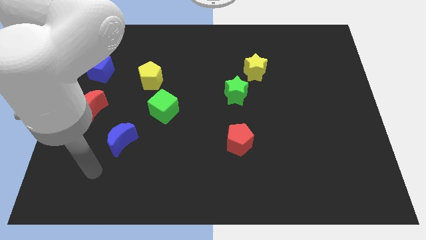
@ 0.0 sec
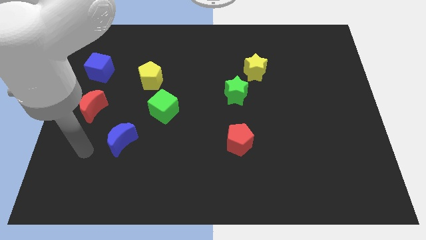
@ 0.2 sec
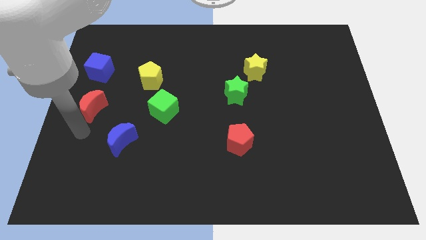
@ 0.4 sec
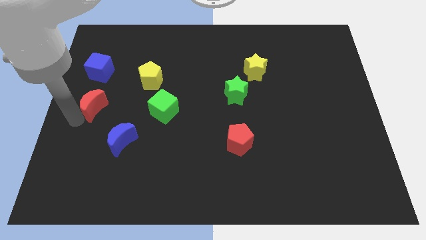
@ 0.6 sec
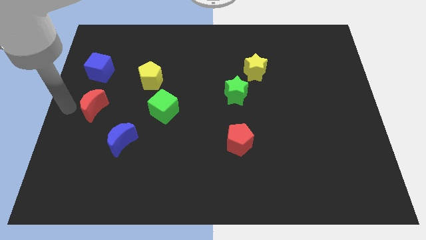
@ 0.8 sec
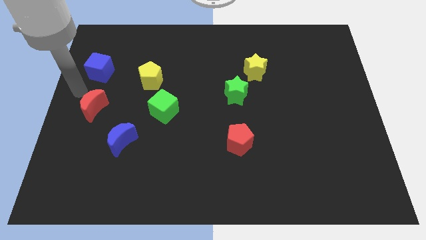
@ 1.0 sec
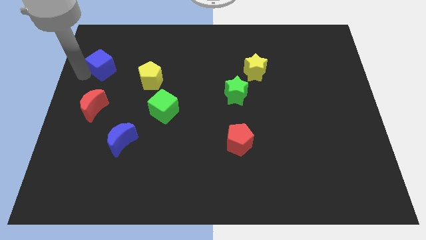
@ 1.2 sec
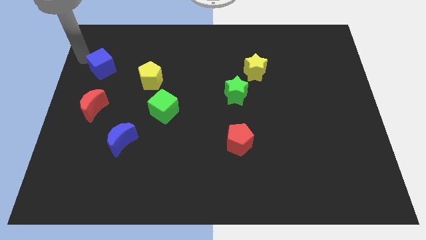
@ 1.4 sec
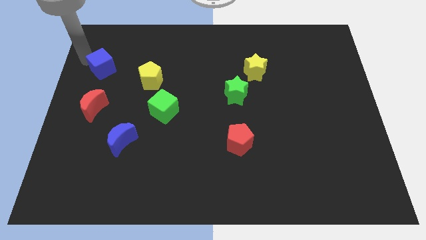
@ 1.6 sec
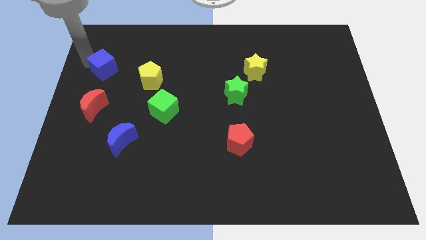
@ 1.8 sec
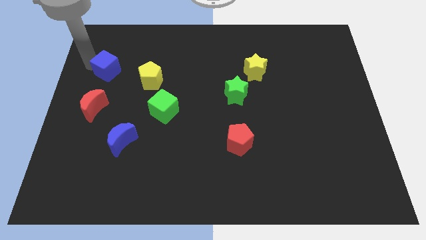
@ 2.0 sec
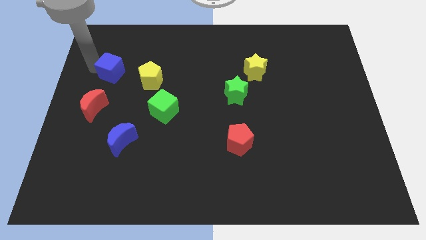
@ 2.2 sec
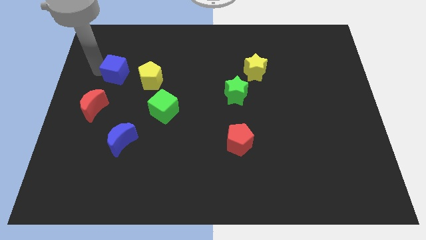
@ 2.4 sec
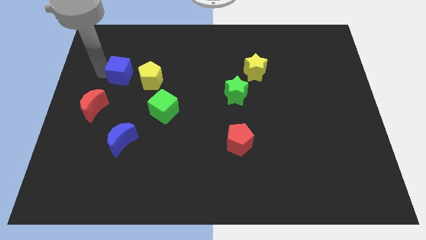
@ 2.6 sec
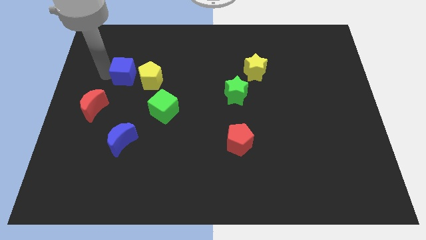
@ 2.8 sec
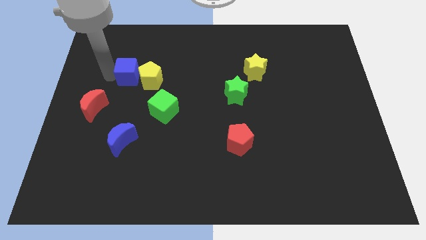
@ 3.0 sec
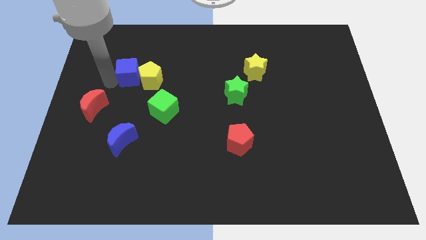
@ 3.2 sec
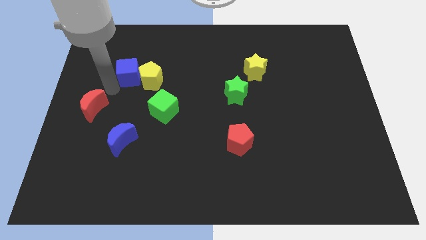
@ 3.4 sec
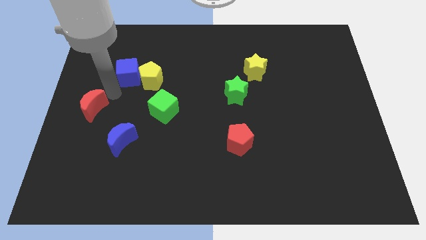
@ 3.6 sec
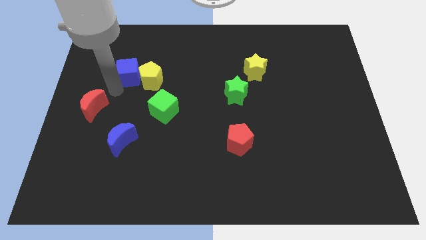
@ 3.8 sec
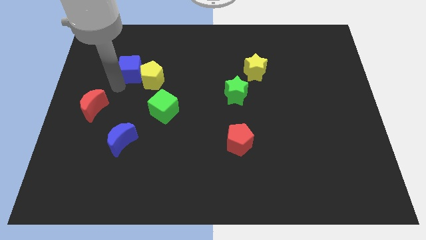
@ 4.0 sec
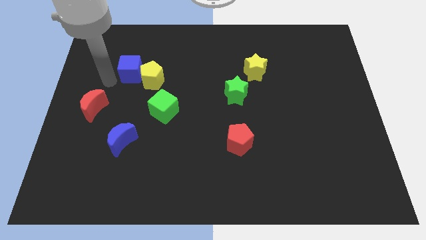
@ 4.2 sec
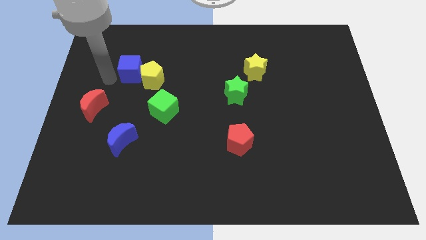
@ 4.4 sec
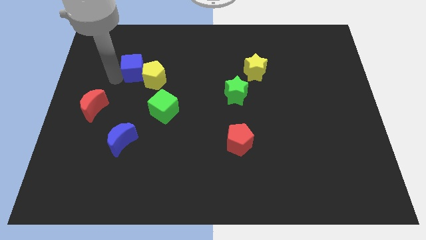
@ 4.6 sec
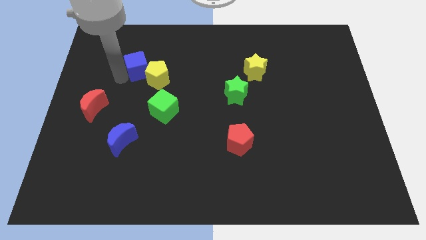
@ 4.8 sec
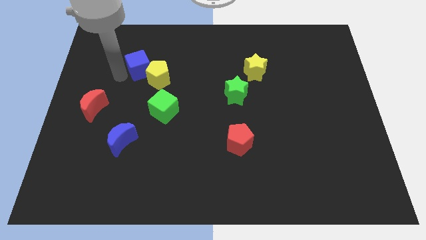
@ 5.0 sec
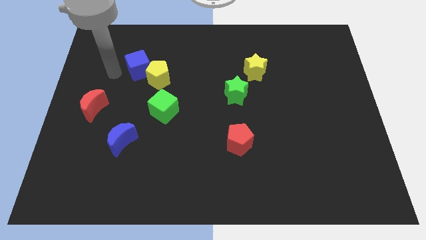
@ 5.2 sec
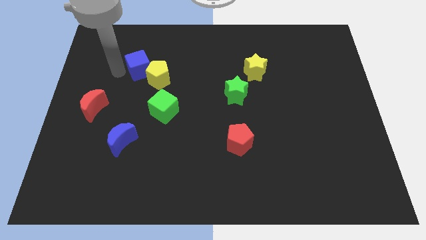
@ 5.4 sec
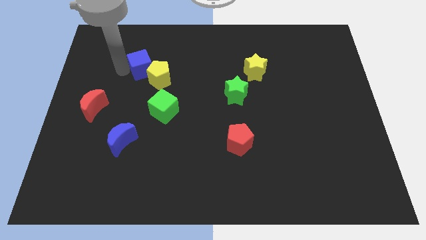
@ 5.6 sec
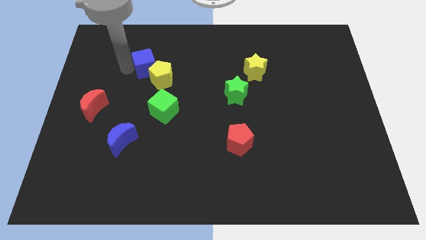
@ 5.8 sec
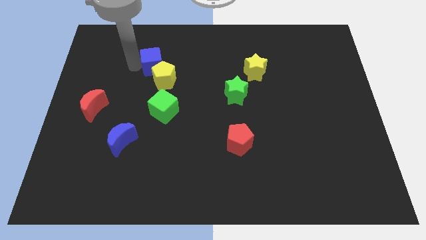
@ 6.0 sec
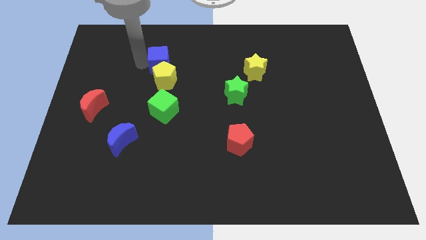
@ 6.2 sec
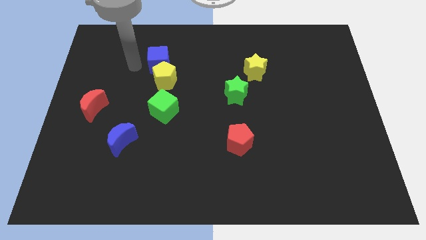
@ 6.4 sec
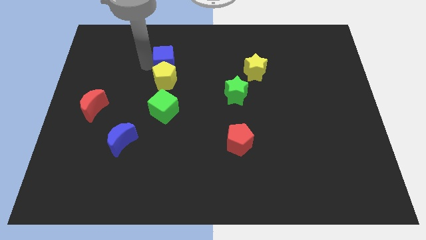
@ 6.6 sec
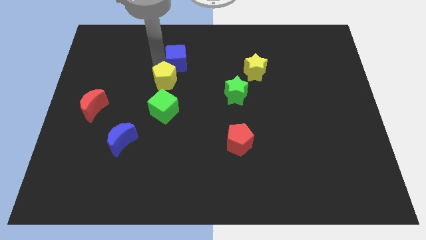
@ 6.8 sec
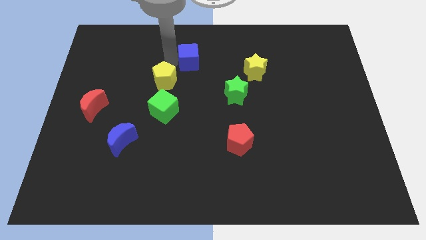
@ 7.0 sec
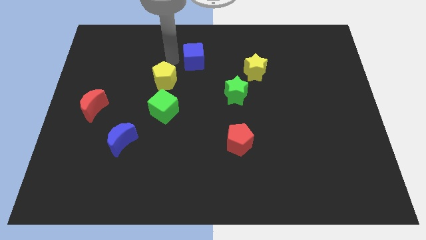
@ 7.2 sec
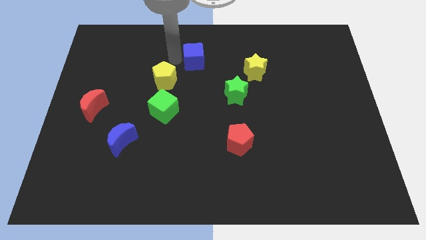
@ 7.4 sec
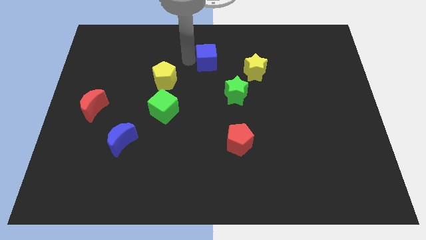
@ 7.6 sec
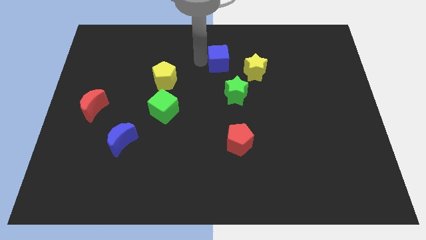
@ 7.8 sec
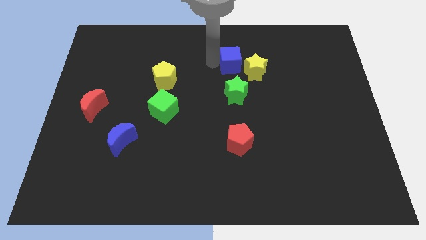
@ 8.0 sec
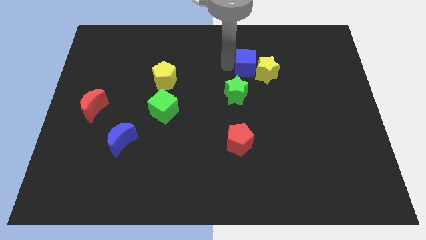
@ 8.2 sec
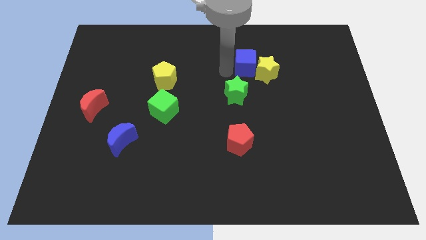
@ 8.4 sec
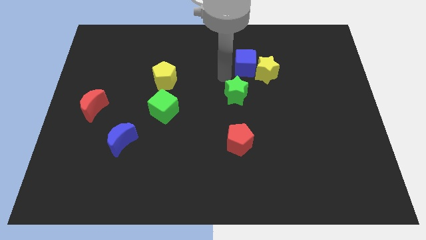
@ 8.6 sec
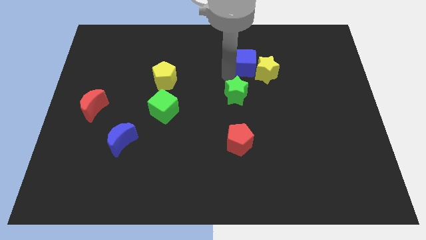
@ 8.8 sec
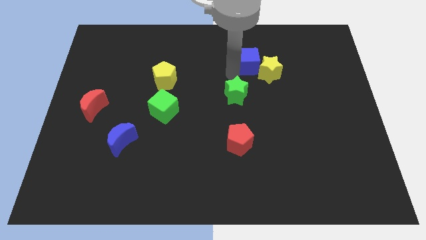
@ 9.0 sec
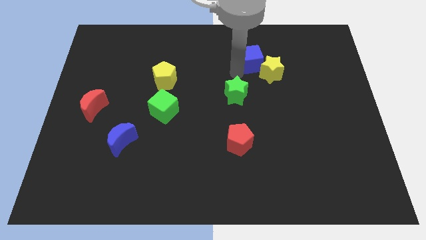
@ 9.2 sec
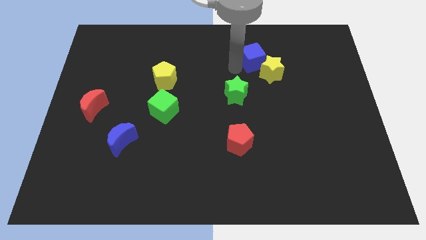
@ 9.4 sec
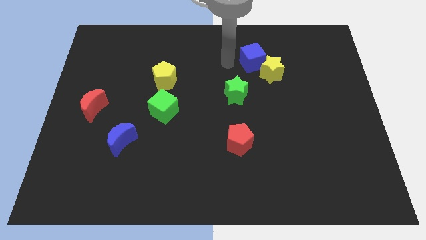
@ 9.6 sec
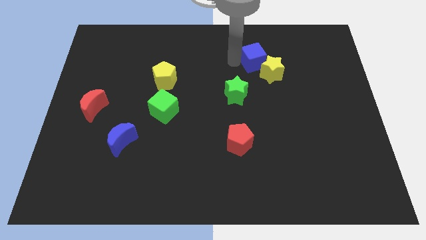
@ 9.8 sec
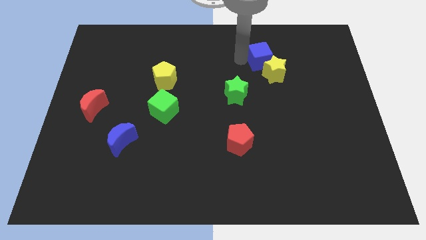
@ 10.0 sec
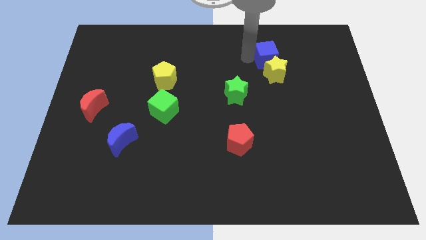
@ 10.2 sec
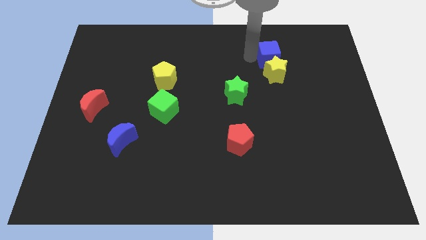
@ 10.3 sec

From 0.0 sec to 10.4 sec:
slide the blue cube diagonally up and to the right of the yellow star

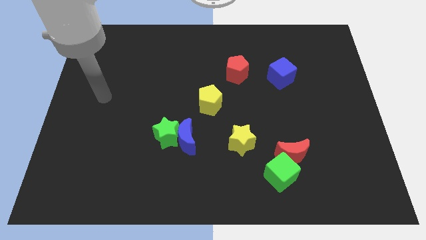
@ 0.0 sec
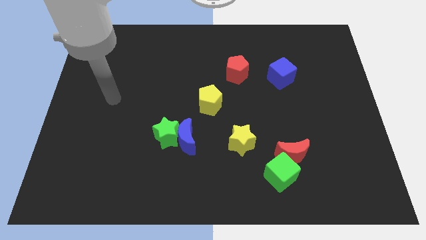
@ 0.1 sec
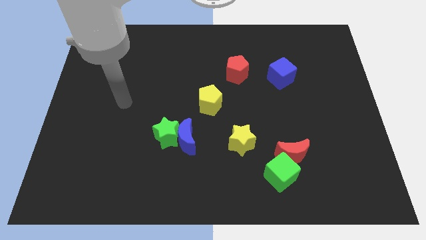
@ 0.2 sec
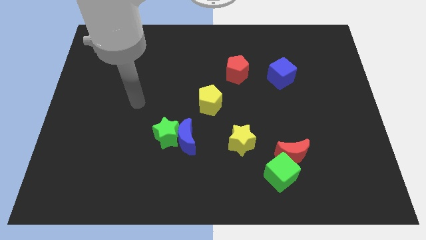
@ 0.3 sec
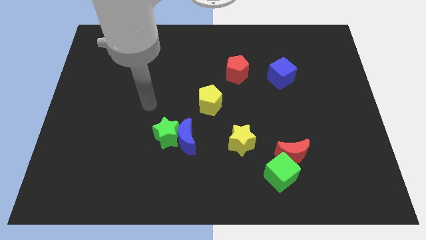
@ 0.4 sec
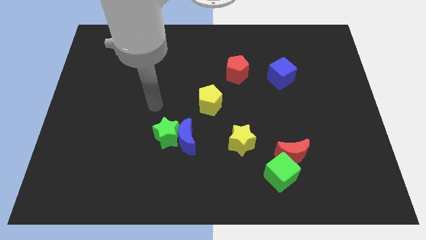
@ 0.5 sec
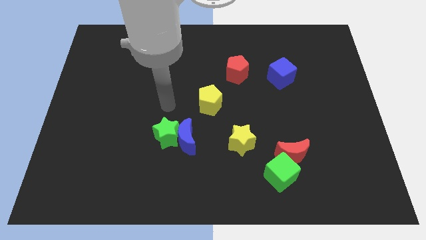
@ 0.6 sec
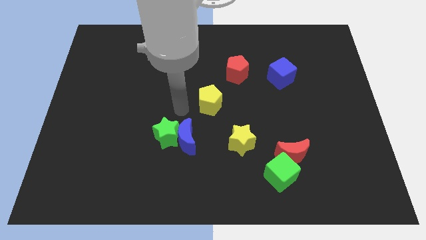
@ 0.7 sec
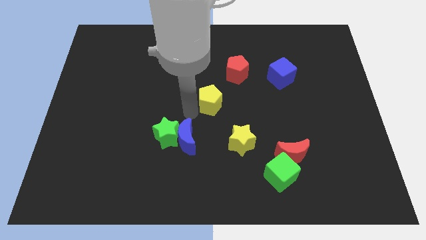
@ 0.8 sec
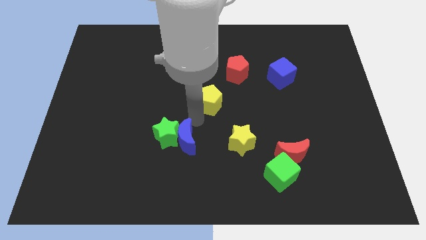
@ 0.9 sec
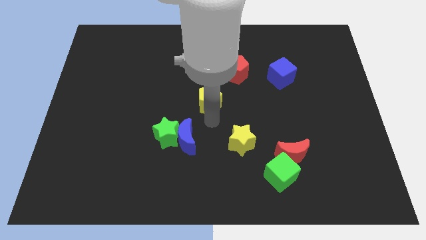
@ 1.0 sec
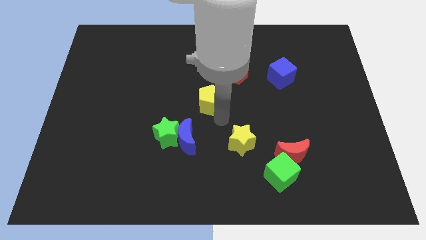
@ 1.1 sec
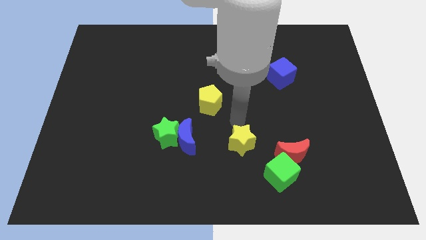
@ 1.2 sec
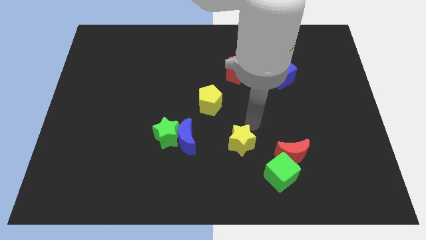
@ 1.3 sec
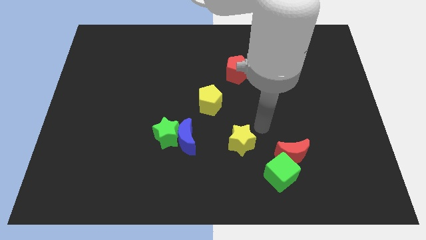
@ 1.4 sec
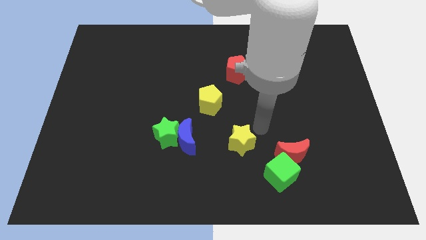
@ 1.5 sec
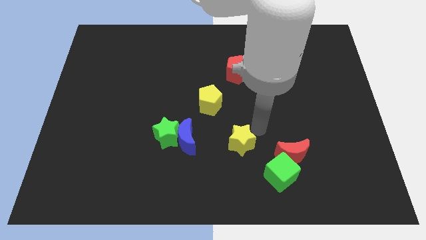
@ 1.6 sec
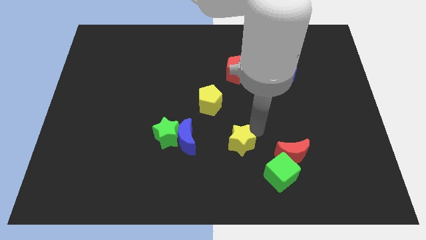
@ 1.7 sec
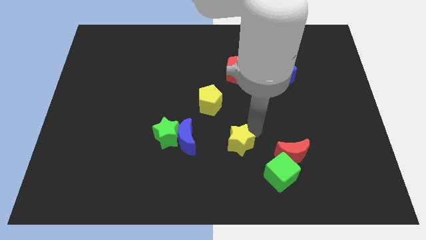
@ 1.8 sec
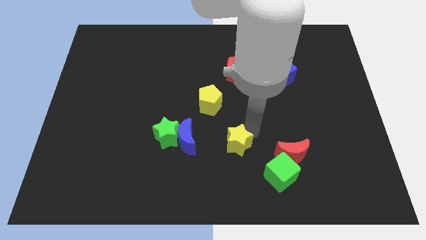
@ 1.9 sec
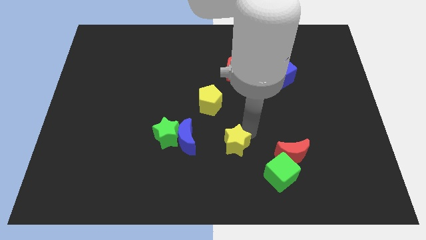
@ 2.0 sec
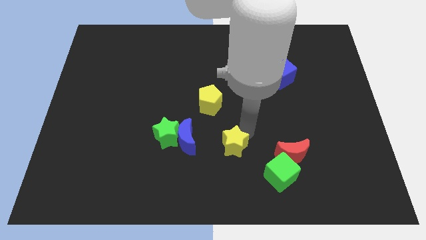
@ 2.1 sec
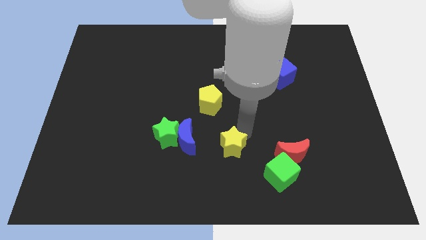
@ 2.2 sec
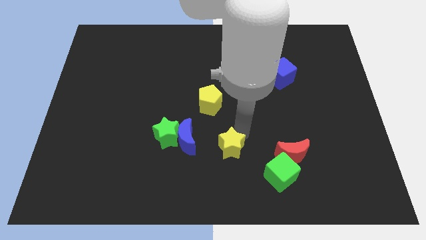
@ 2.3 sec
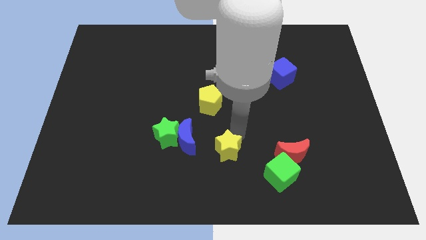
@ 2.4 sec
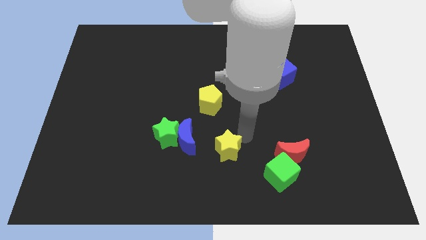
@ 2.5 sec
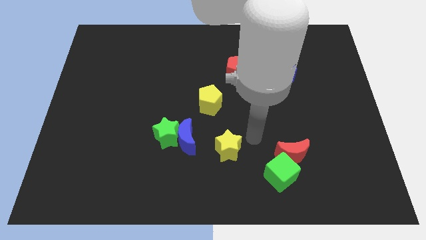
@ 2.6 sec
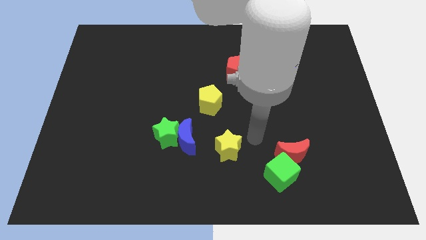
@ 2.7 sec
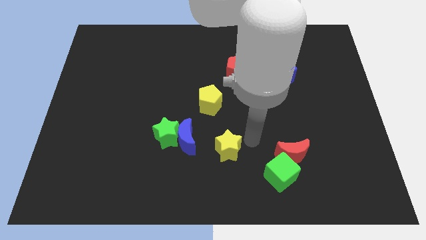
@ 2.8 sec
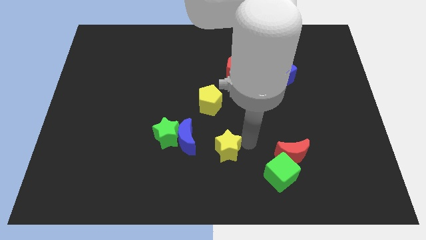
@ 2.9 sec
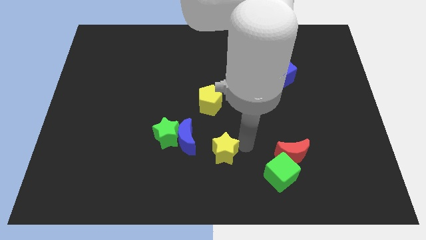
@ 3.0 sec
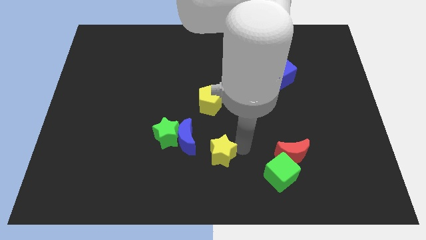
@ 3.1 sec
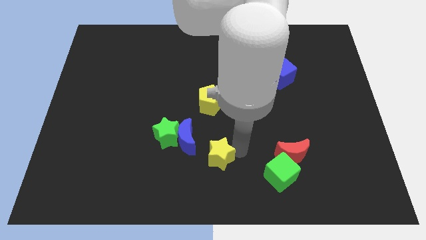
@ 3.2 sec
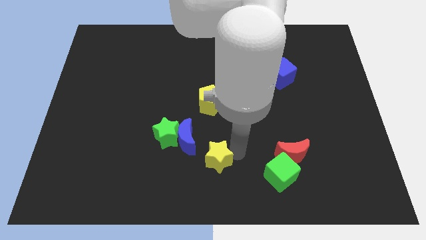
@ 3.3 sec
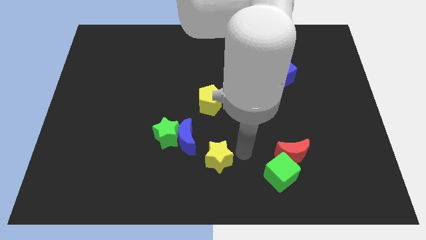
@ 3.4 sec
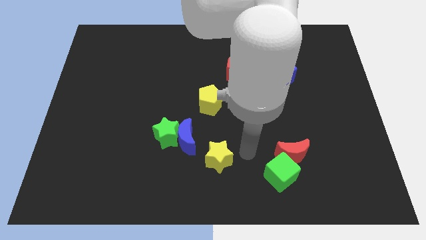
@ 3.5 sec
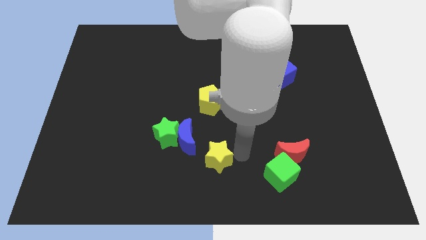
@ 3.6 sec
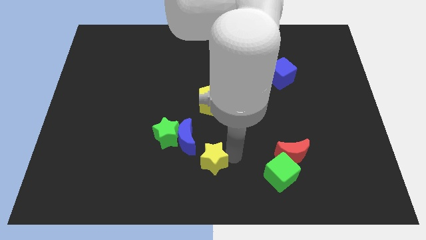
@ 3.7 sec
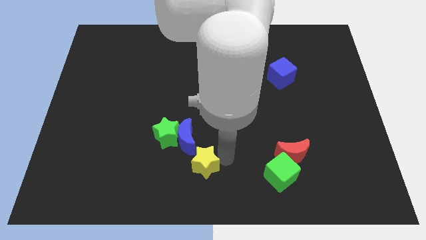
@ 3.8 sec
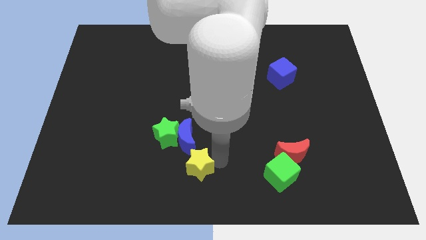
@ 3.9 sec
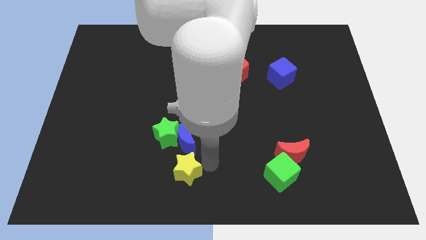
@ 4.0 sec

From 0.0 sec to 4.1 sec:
push the yellow star below the green star
